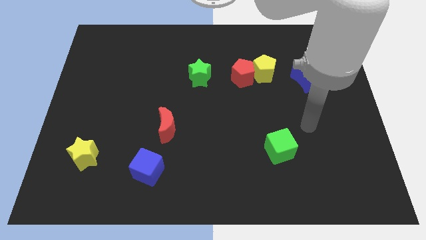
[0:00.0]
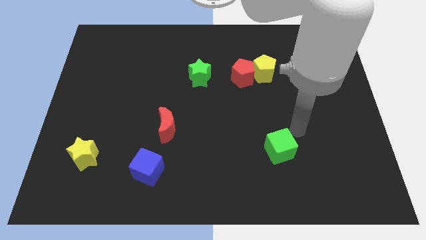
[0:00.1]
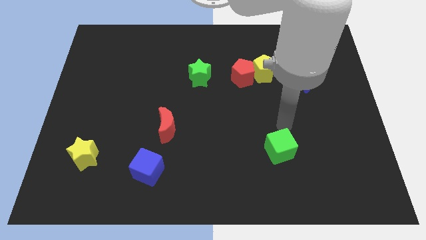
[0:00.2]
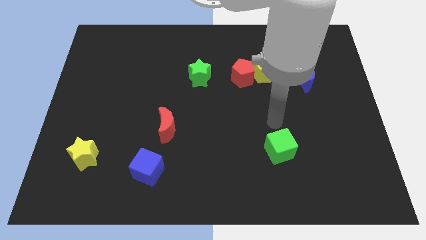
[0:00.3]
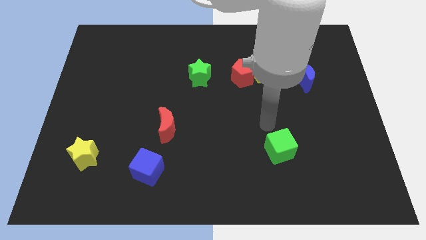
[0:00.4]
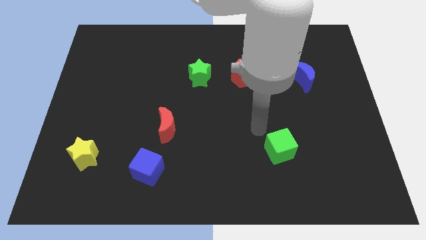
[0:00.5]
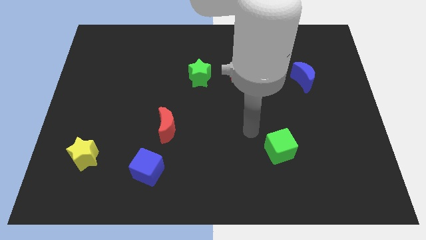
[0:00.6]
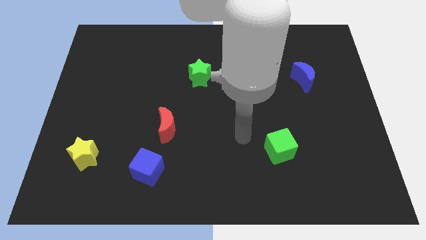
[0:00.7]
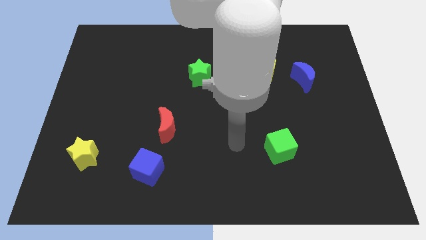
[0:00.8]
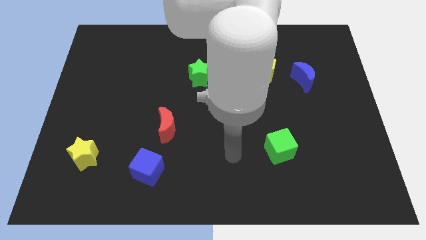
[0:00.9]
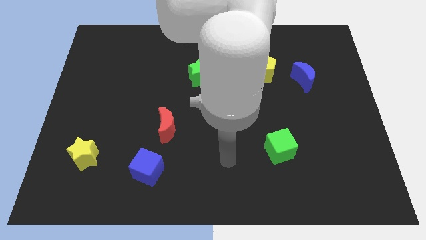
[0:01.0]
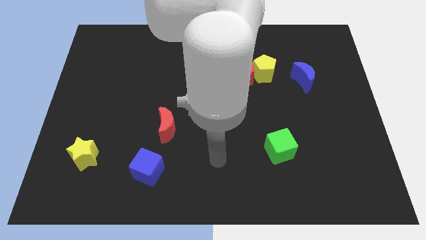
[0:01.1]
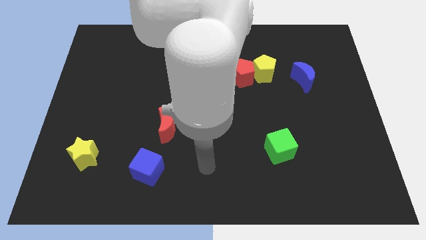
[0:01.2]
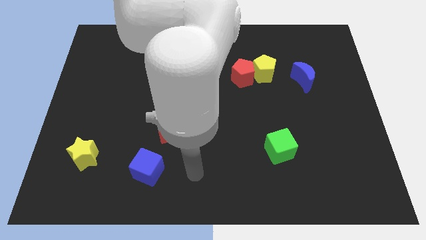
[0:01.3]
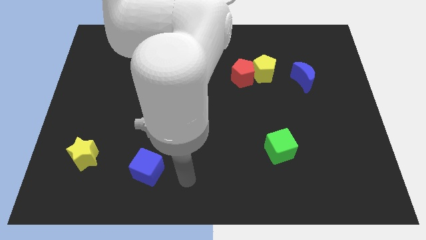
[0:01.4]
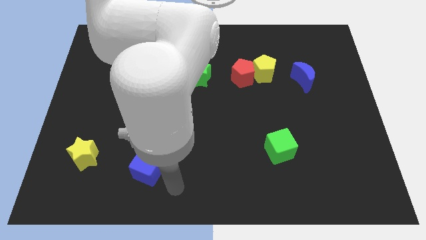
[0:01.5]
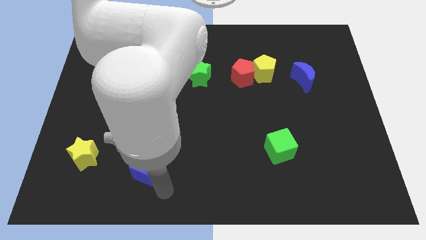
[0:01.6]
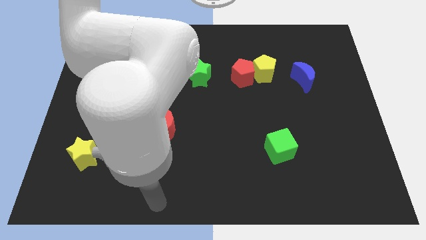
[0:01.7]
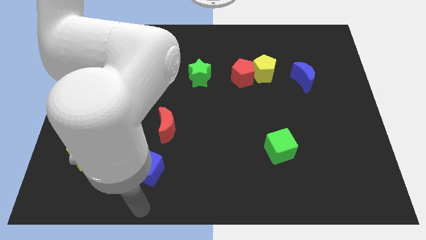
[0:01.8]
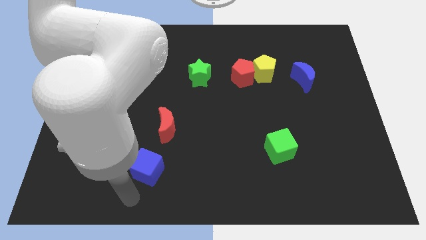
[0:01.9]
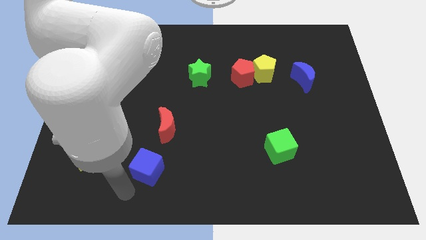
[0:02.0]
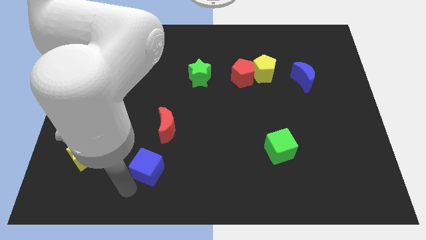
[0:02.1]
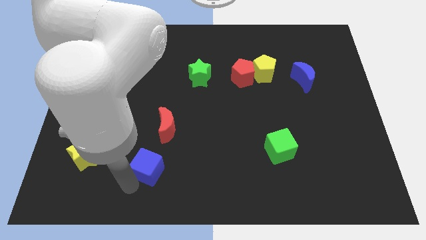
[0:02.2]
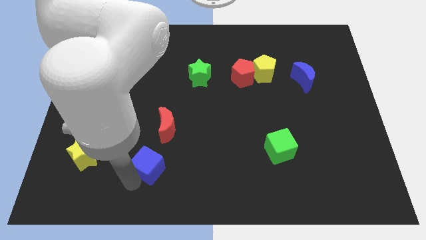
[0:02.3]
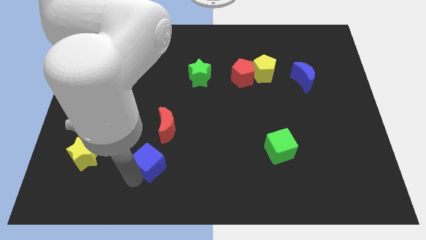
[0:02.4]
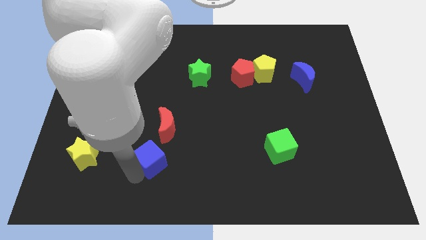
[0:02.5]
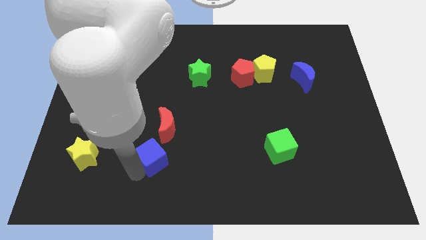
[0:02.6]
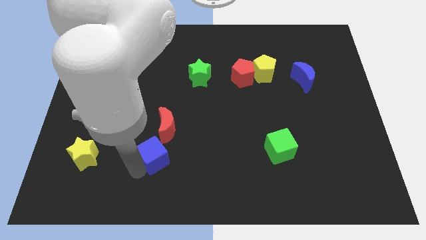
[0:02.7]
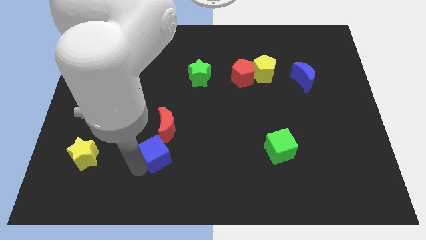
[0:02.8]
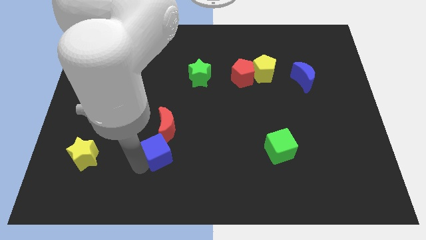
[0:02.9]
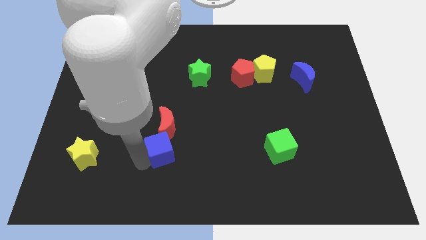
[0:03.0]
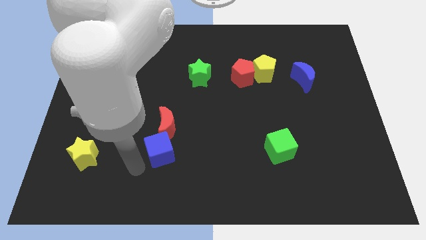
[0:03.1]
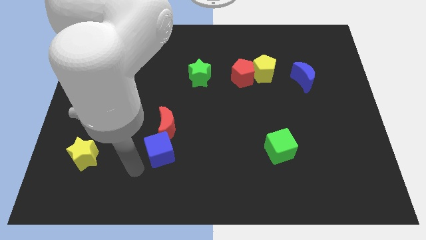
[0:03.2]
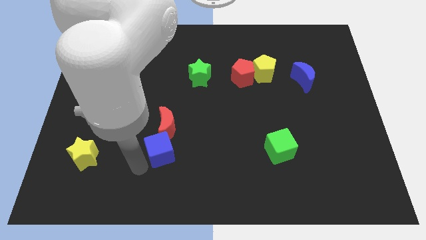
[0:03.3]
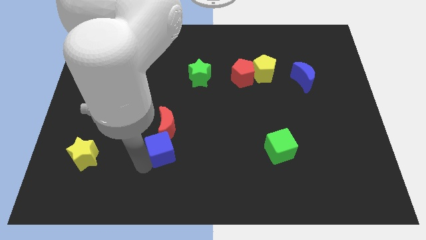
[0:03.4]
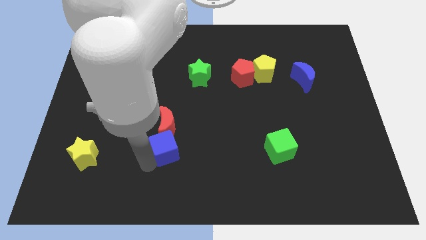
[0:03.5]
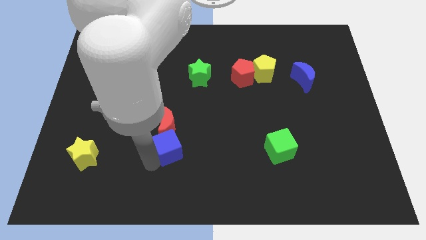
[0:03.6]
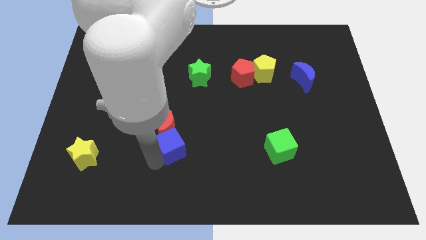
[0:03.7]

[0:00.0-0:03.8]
push the blue cube up and then right a little bit

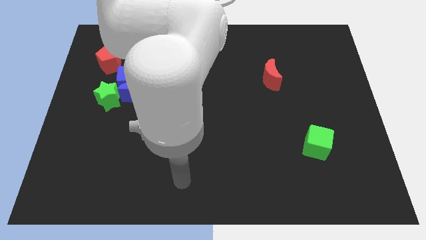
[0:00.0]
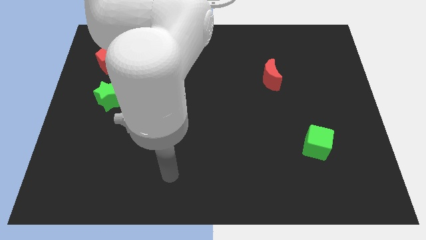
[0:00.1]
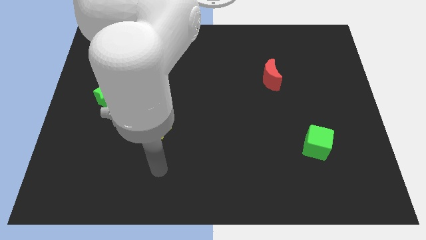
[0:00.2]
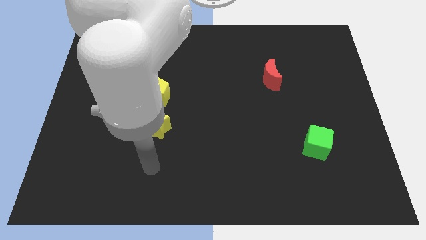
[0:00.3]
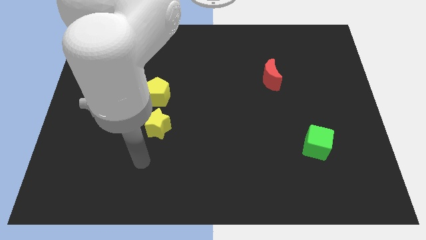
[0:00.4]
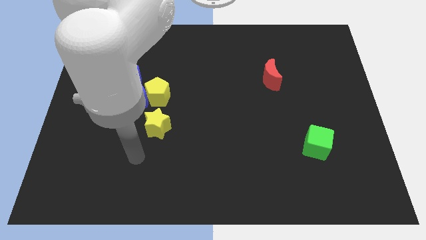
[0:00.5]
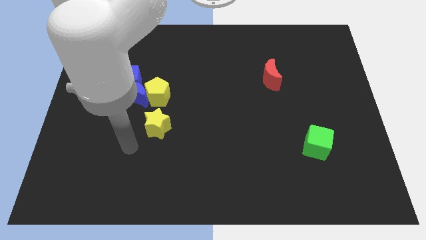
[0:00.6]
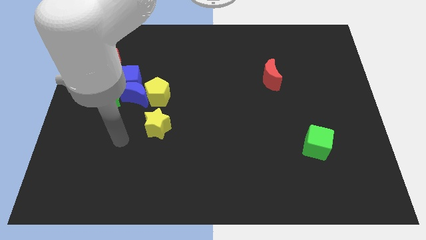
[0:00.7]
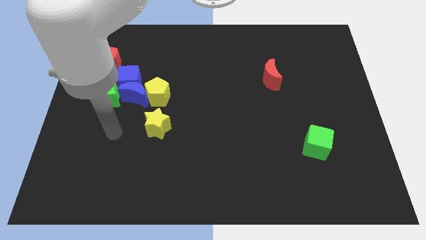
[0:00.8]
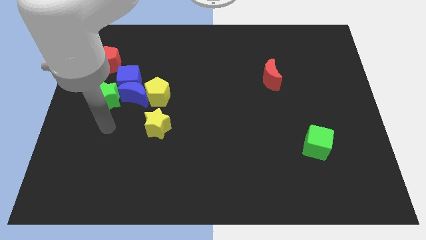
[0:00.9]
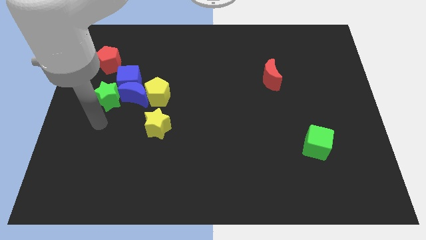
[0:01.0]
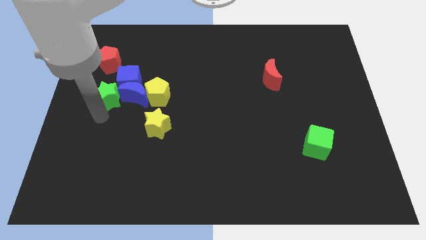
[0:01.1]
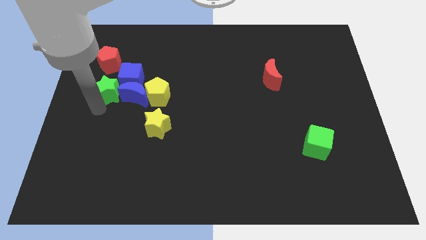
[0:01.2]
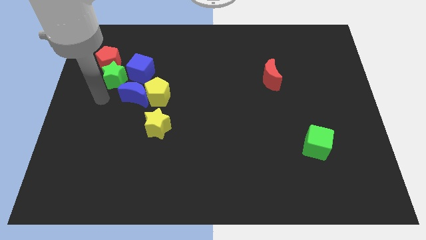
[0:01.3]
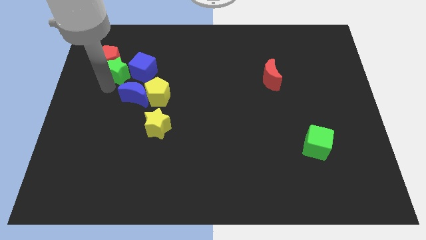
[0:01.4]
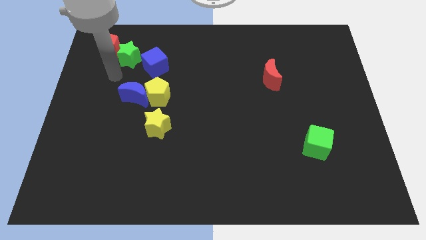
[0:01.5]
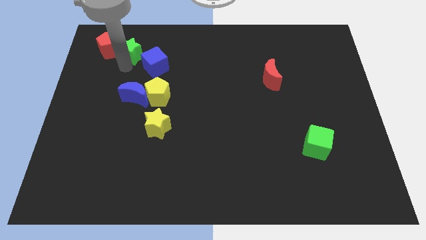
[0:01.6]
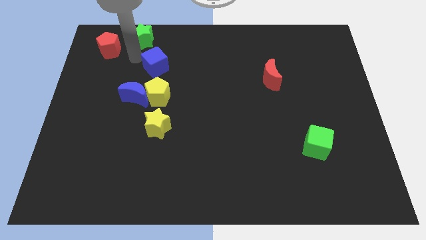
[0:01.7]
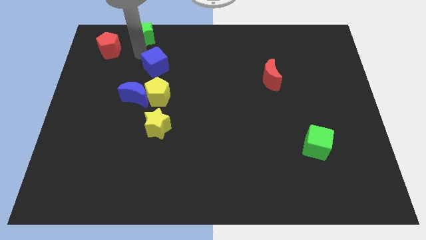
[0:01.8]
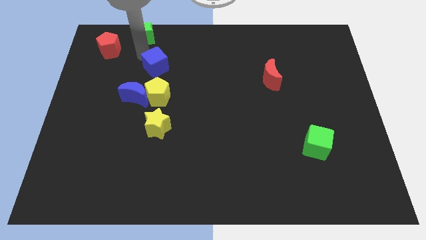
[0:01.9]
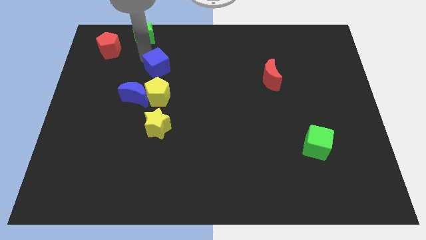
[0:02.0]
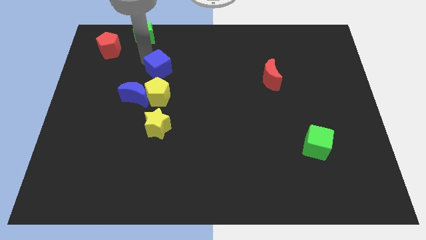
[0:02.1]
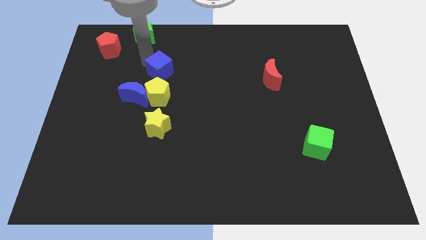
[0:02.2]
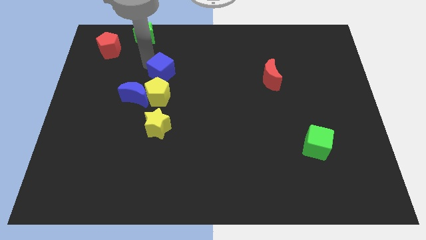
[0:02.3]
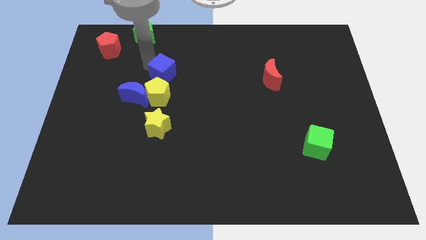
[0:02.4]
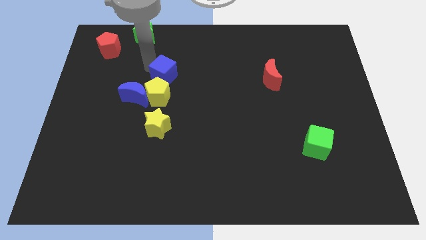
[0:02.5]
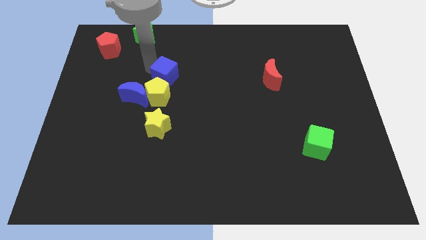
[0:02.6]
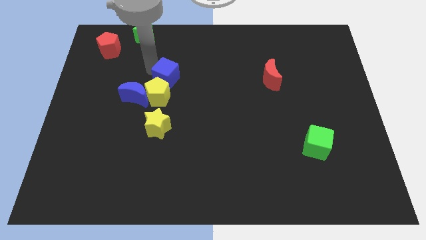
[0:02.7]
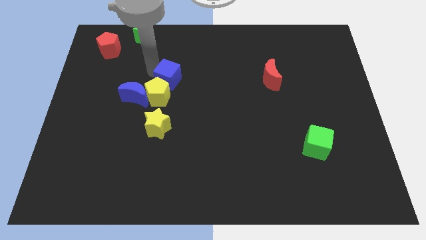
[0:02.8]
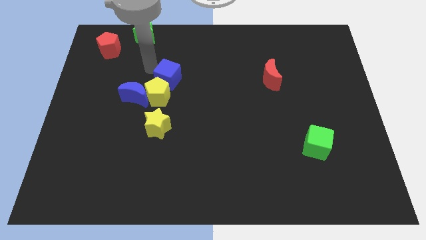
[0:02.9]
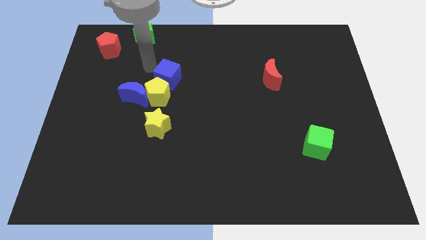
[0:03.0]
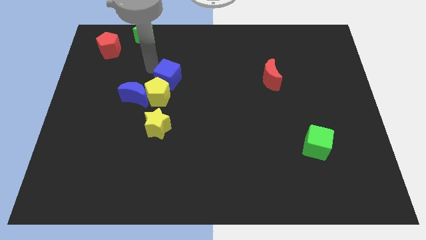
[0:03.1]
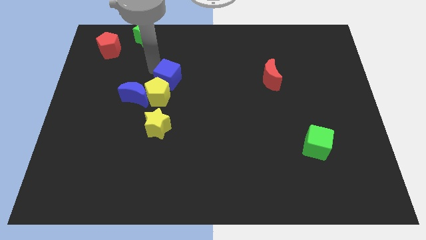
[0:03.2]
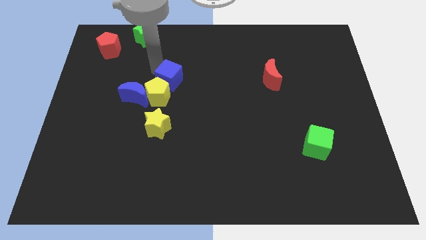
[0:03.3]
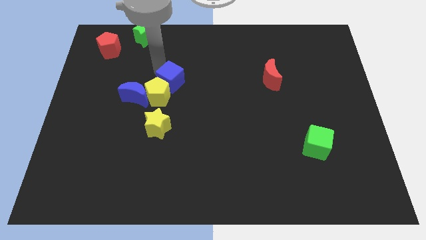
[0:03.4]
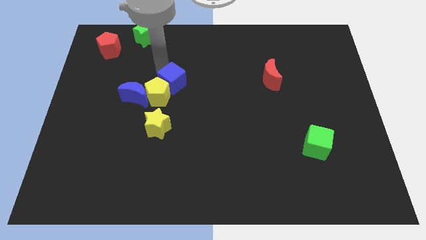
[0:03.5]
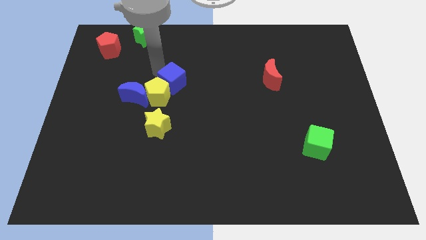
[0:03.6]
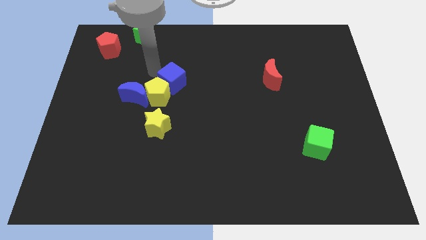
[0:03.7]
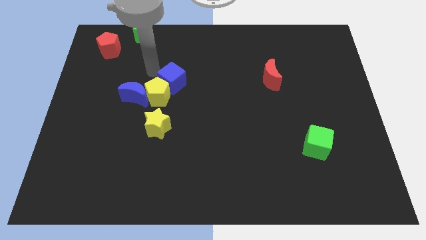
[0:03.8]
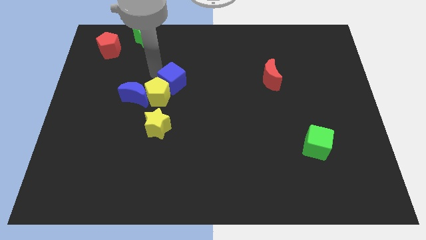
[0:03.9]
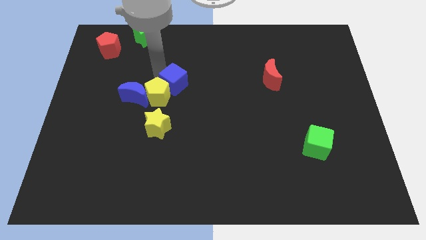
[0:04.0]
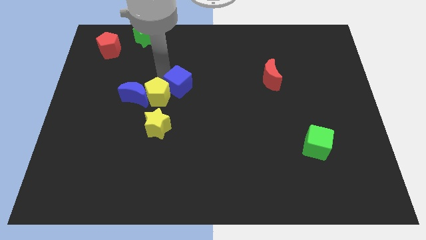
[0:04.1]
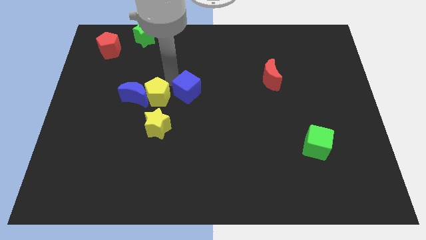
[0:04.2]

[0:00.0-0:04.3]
slightly push the blue cube downwards and to the right
